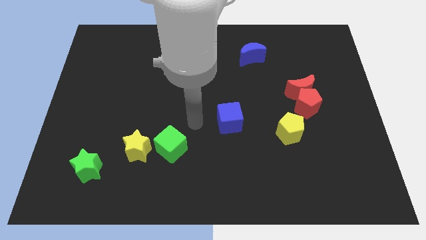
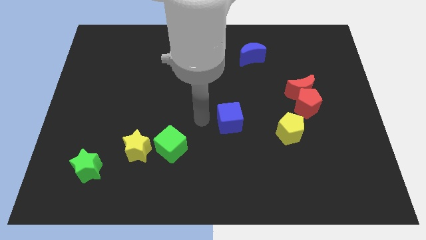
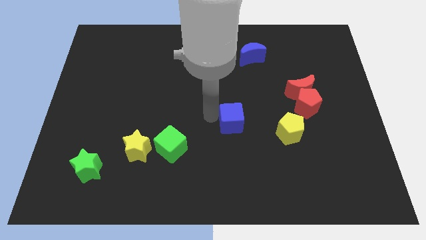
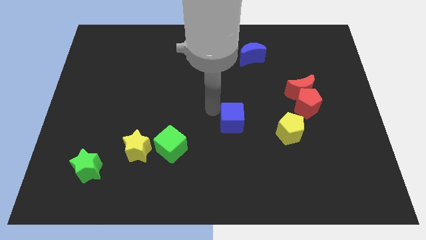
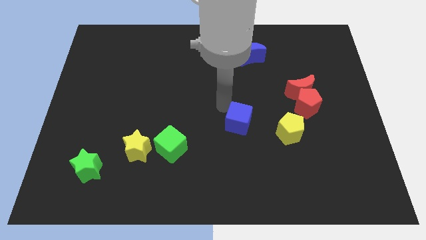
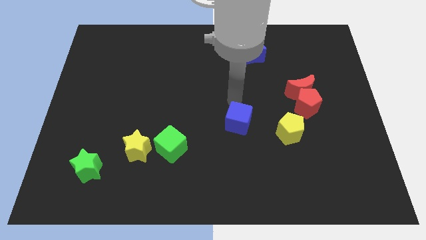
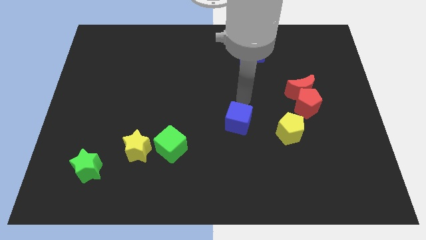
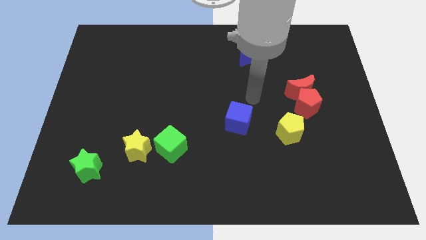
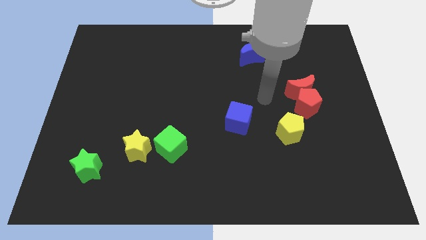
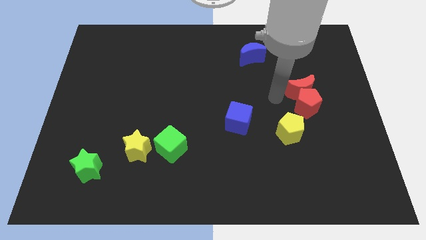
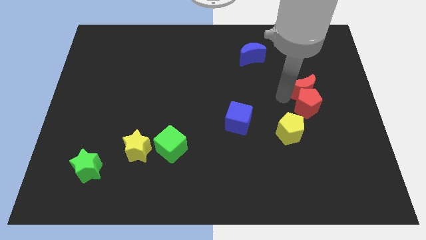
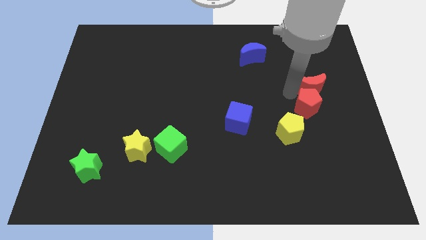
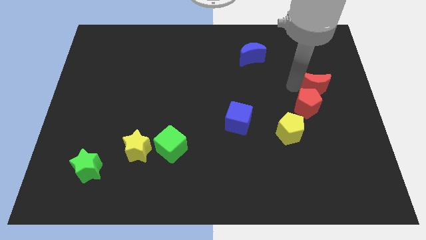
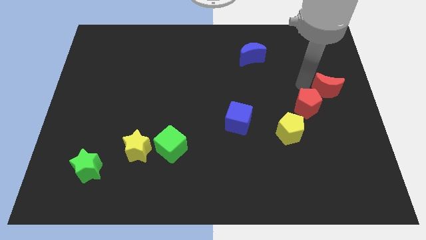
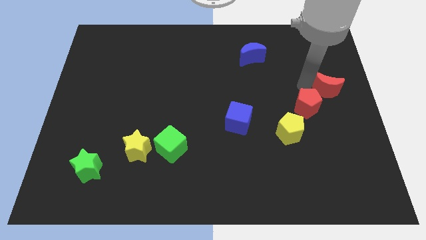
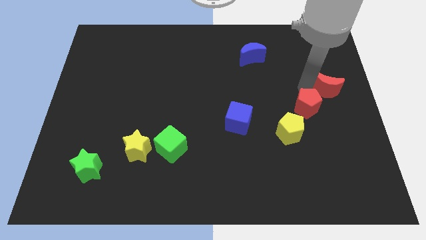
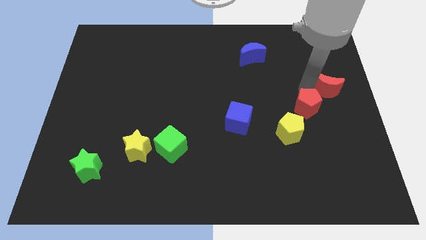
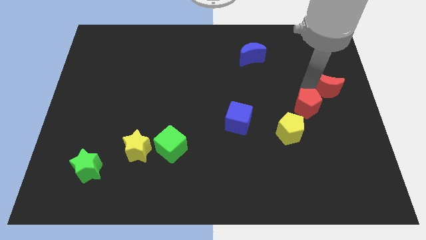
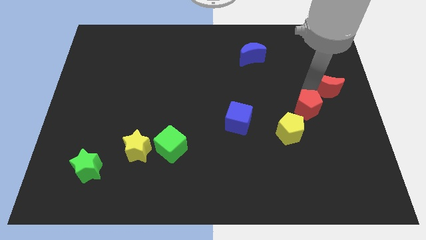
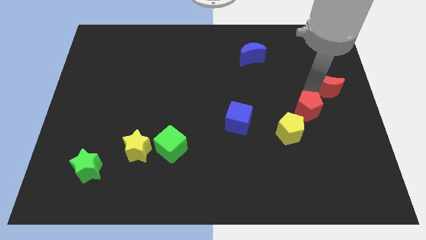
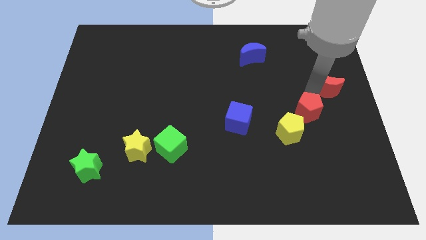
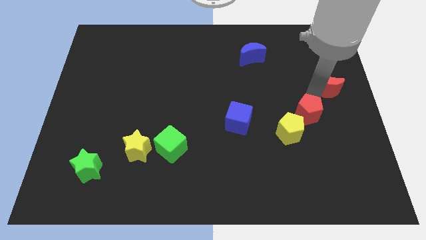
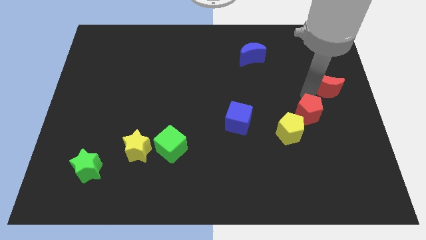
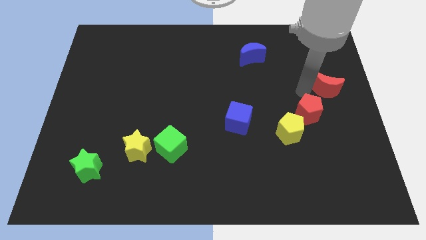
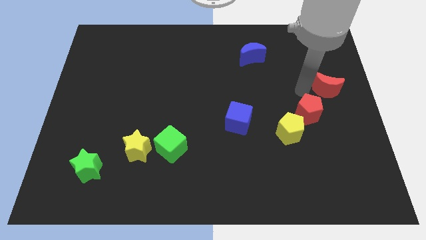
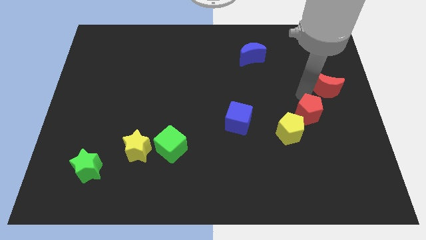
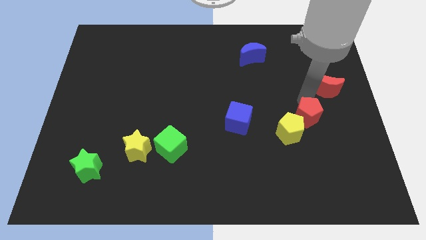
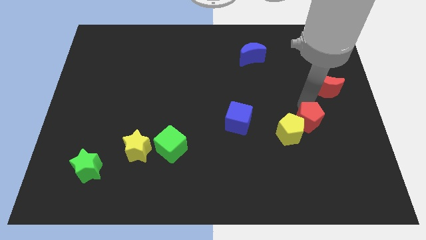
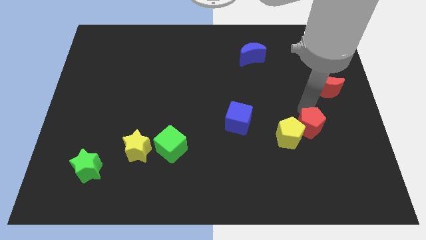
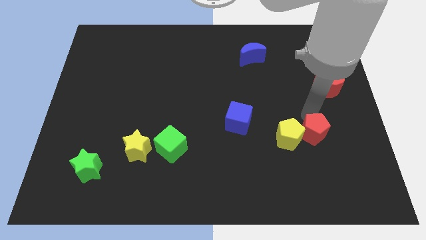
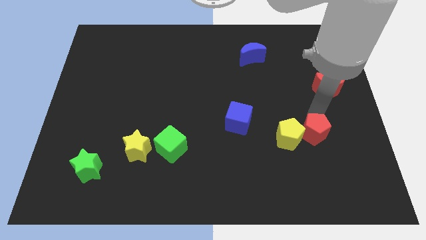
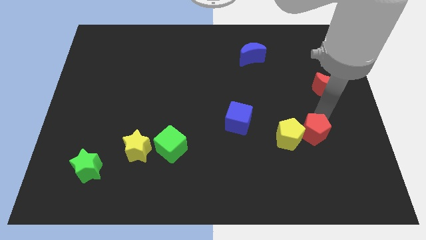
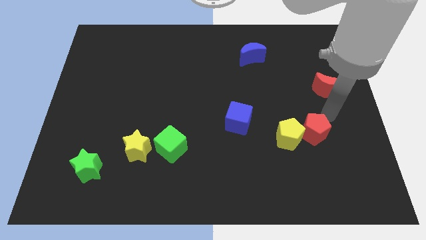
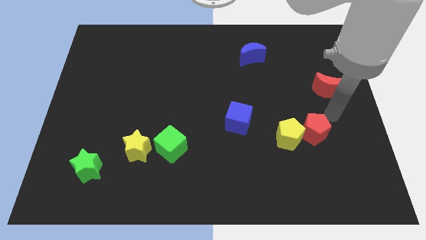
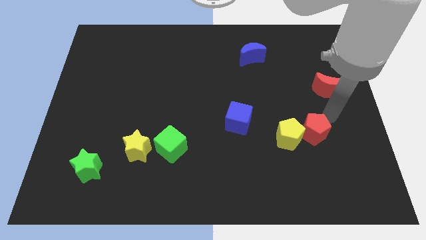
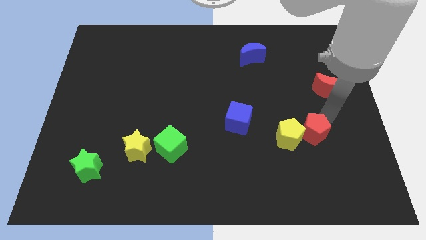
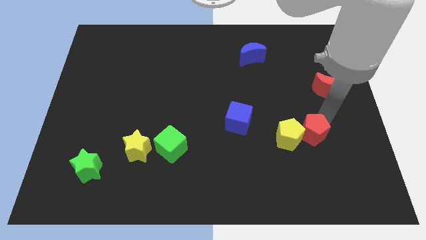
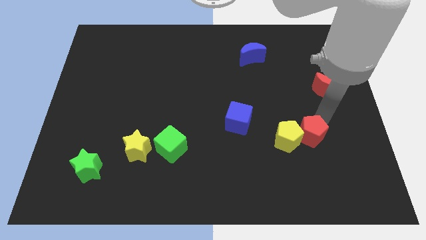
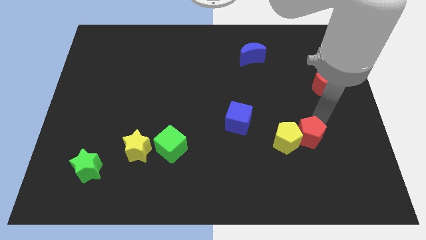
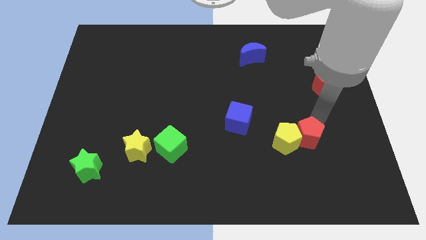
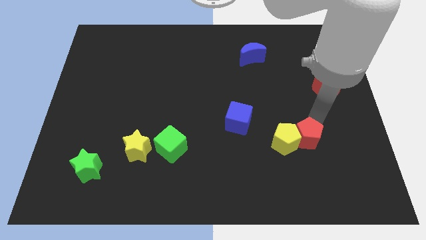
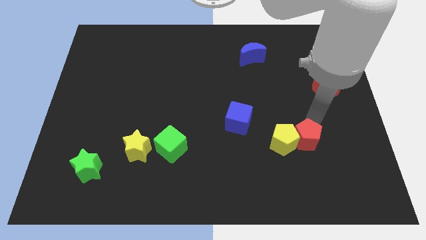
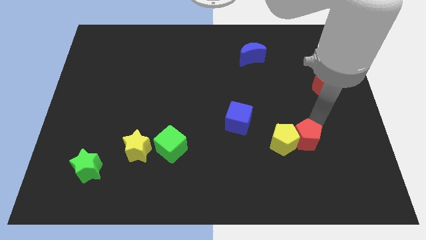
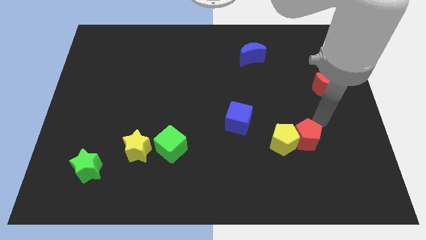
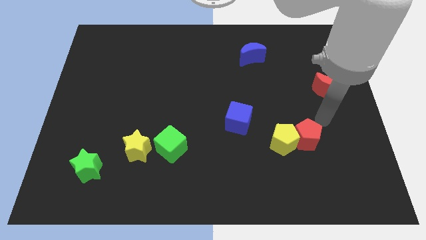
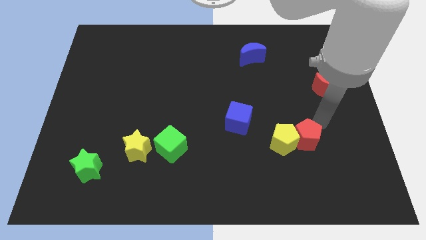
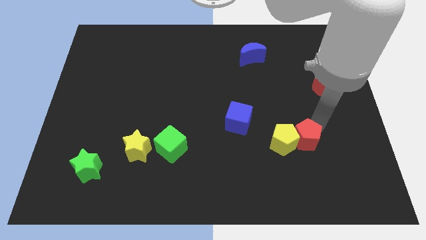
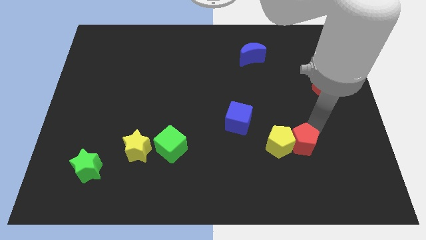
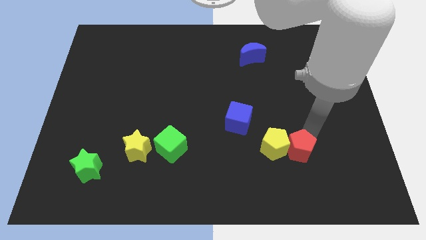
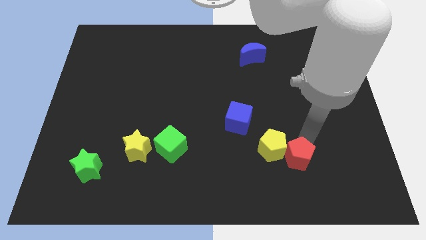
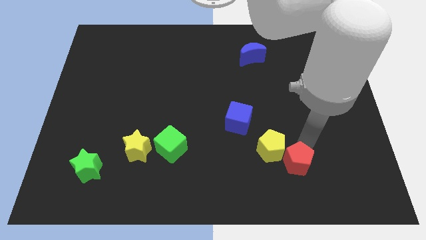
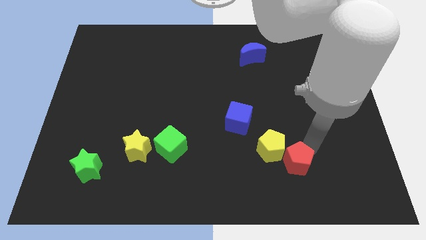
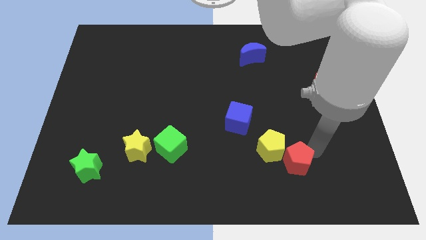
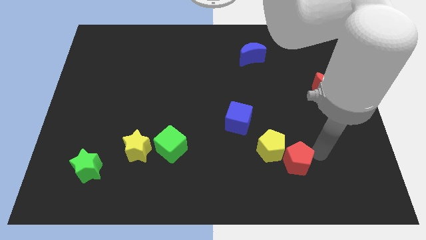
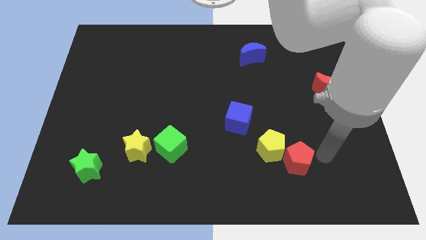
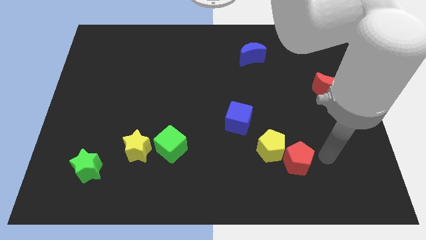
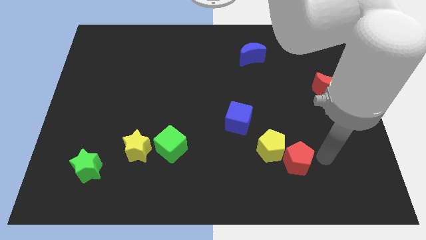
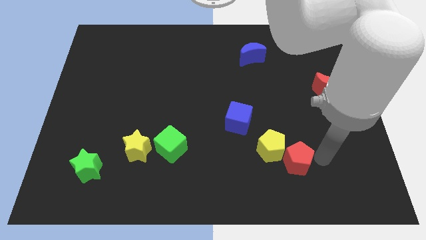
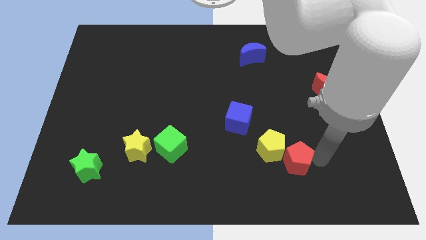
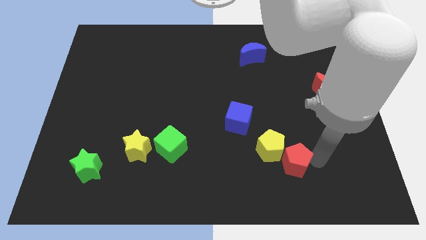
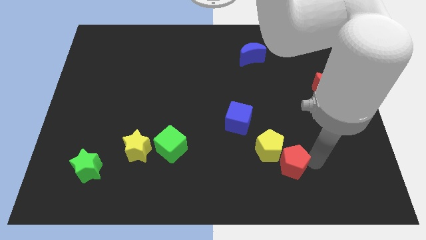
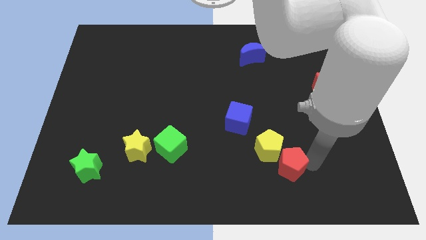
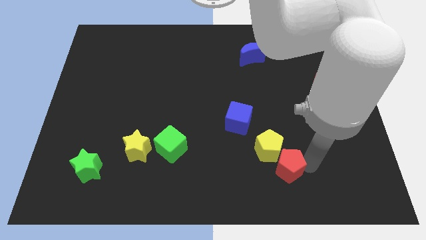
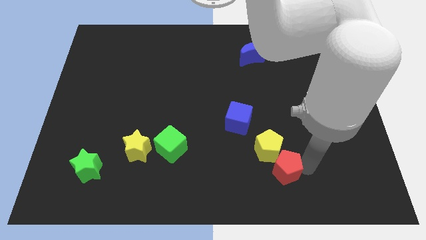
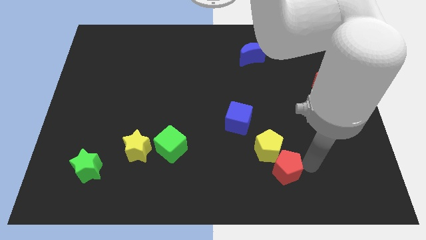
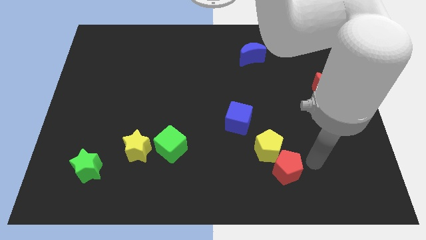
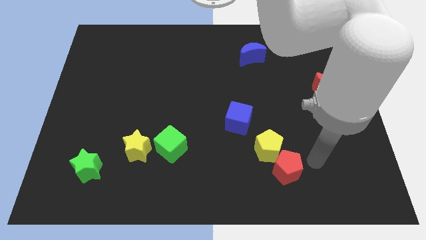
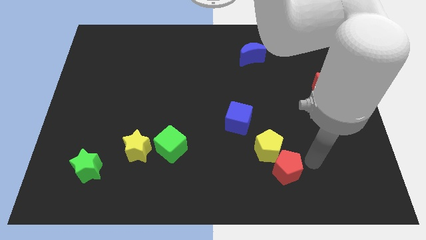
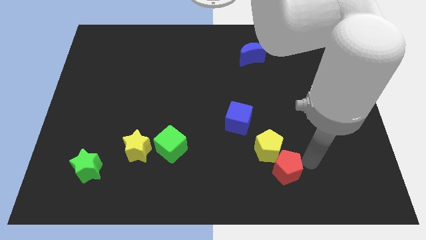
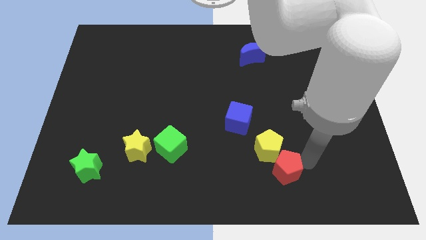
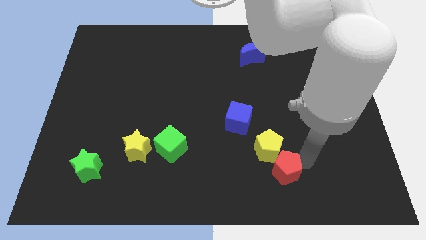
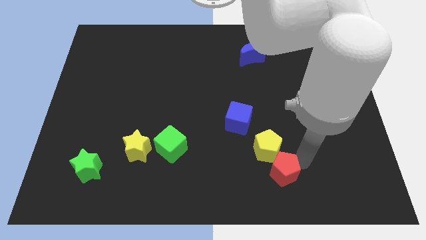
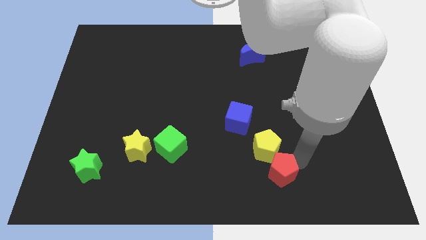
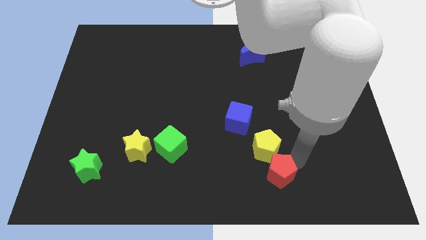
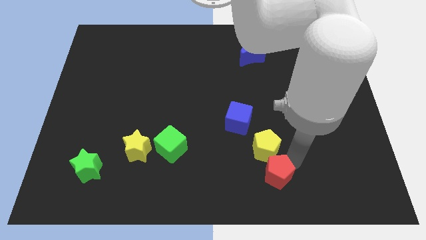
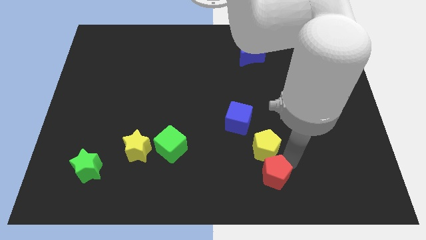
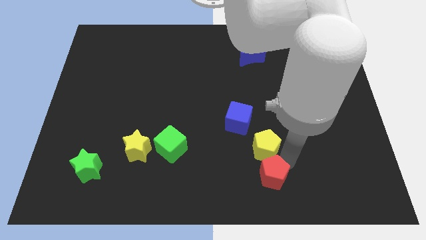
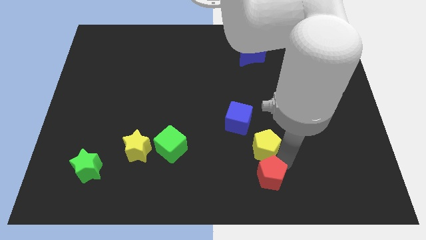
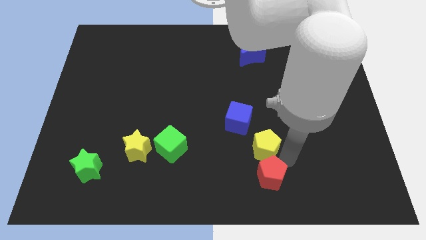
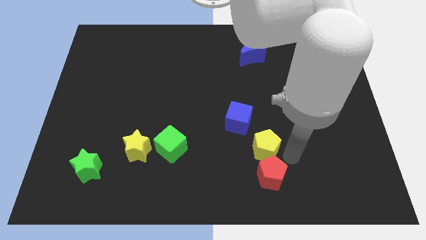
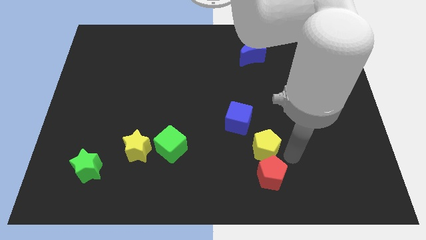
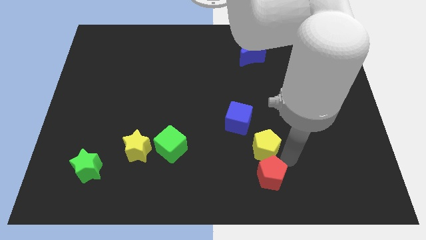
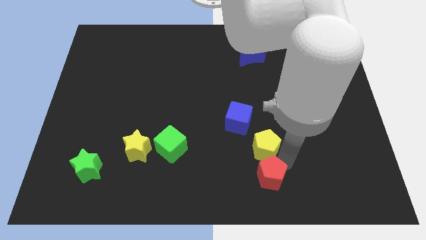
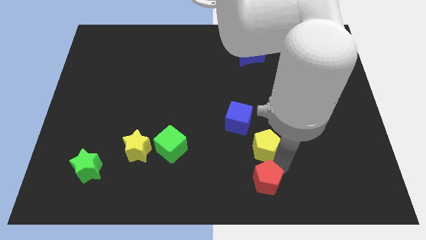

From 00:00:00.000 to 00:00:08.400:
put the red pentagon to the bottom
